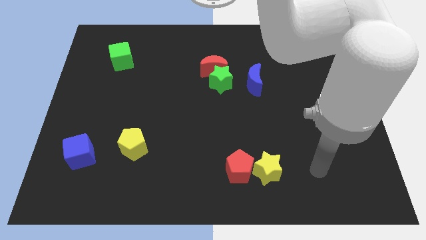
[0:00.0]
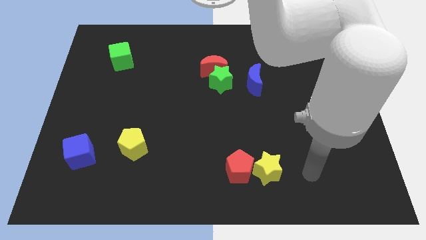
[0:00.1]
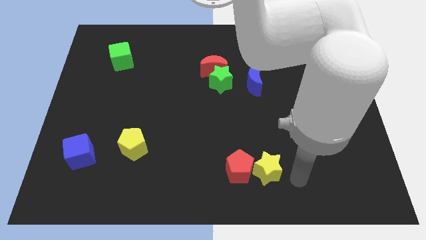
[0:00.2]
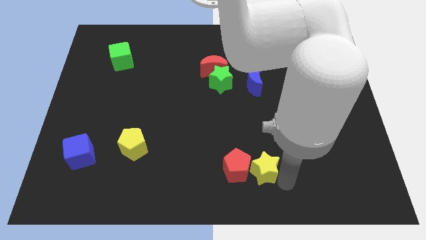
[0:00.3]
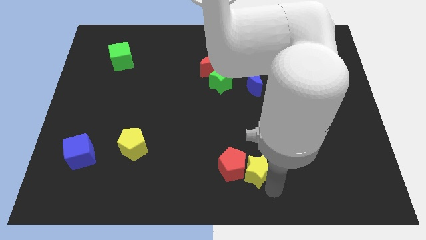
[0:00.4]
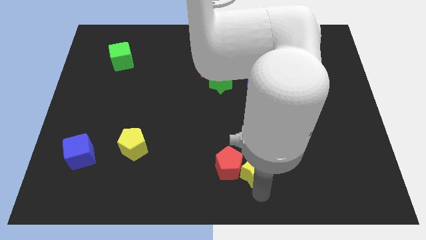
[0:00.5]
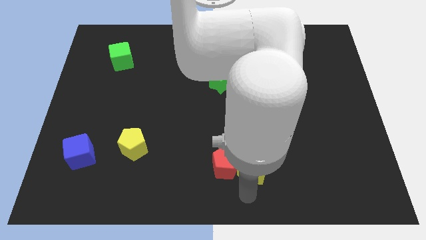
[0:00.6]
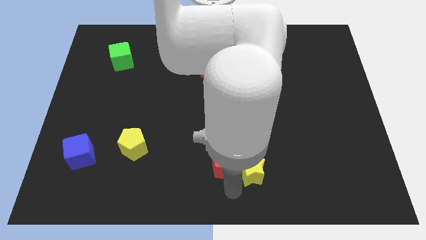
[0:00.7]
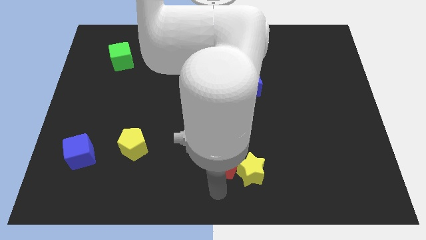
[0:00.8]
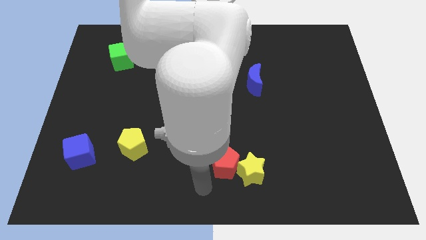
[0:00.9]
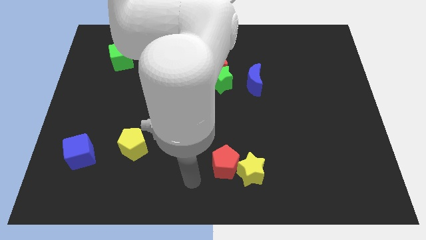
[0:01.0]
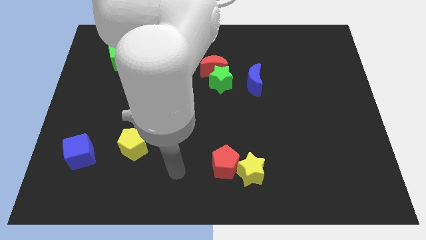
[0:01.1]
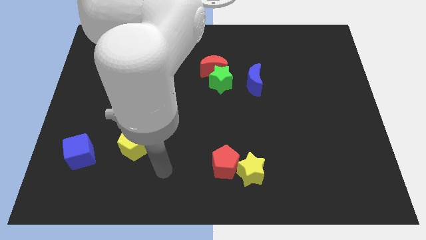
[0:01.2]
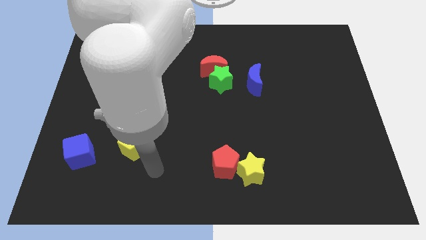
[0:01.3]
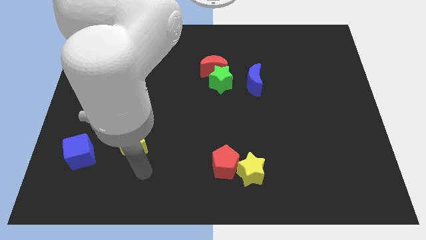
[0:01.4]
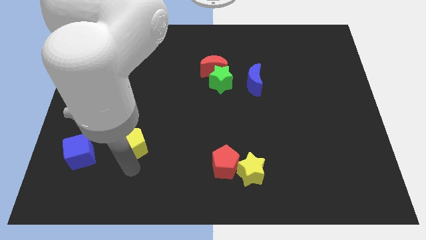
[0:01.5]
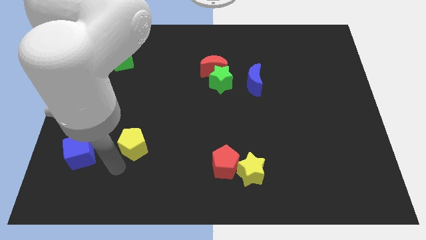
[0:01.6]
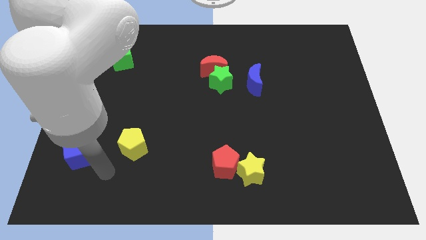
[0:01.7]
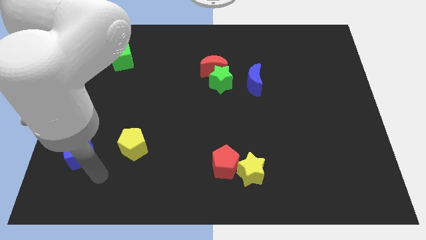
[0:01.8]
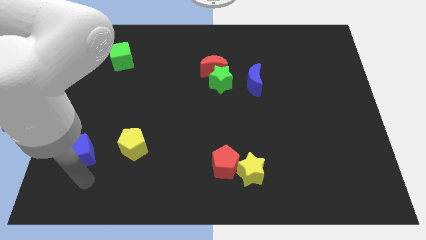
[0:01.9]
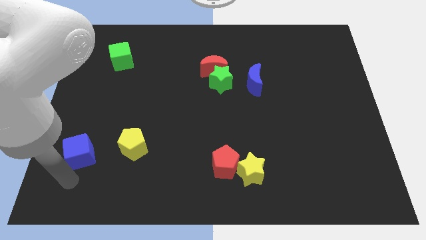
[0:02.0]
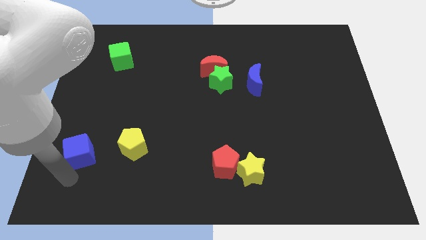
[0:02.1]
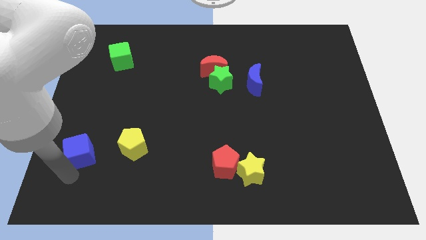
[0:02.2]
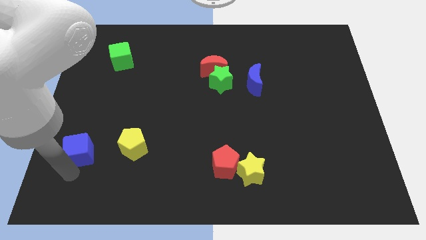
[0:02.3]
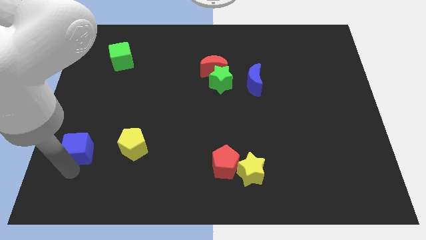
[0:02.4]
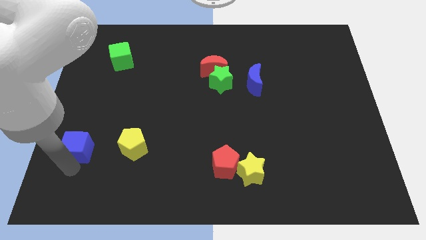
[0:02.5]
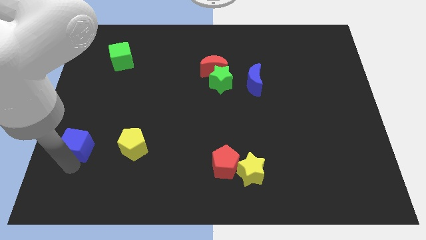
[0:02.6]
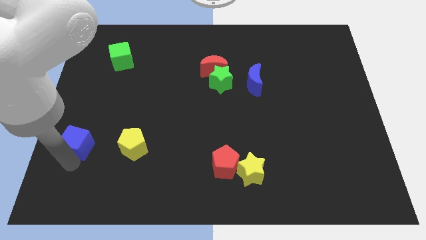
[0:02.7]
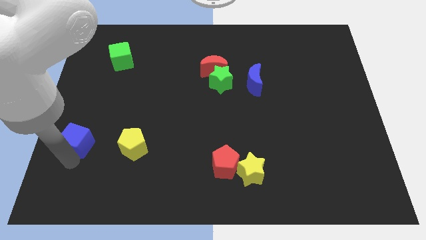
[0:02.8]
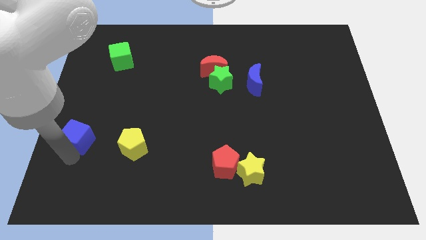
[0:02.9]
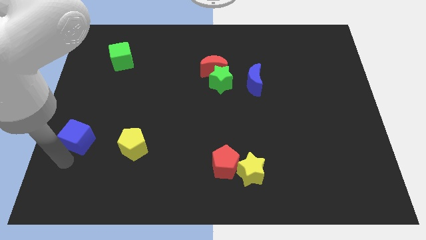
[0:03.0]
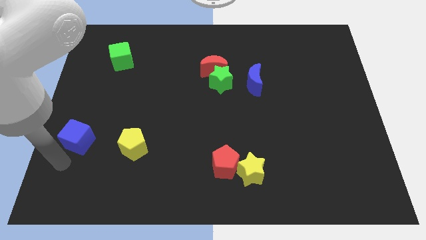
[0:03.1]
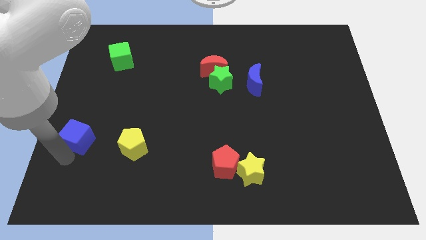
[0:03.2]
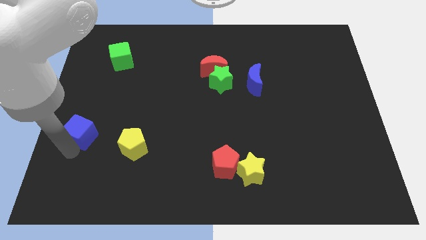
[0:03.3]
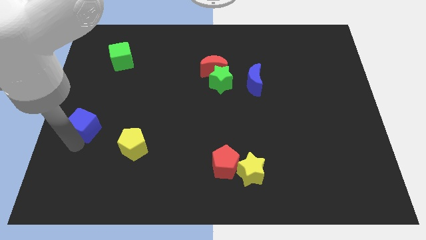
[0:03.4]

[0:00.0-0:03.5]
move the blue cube upwards slightly

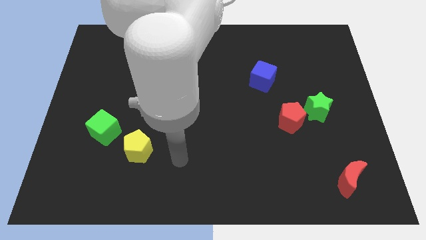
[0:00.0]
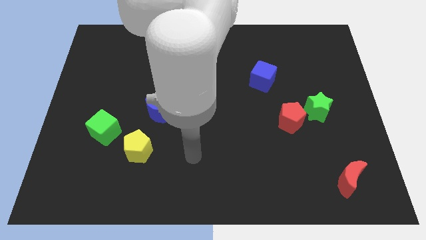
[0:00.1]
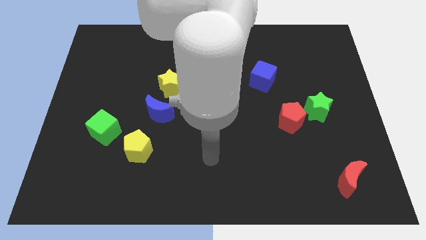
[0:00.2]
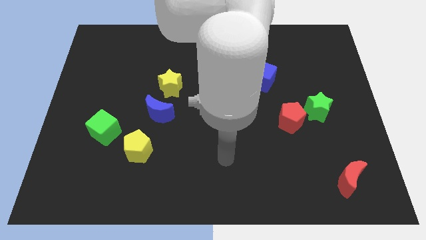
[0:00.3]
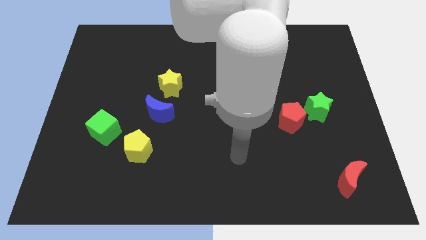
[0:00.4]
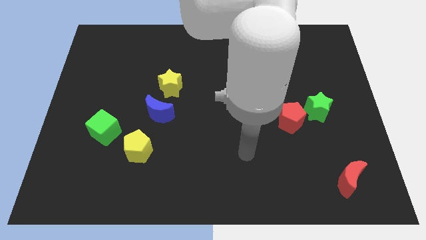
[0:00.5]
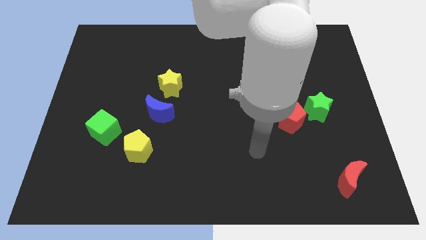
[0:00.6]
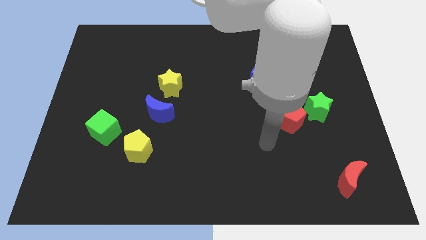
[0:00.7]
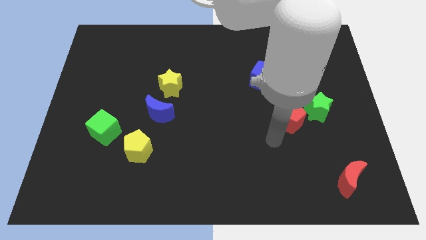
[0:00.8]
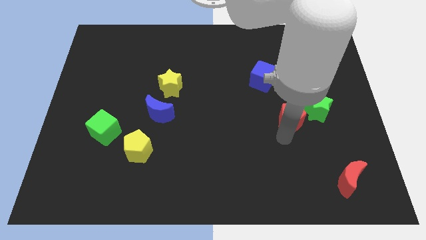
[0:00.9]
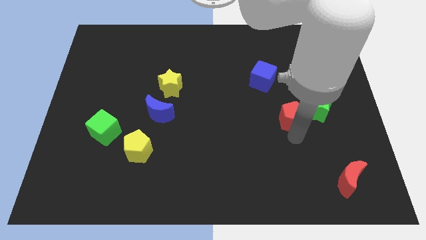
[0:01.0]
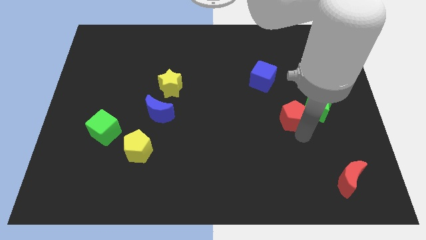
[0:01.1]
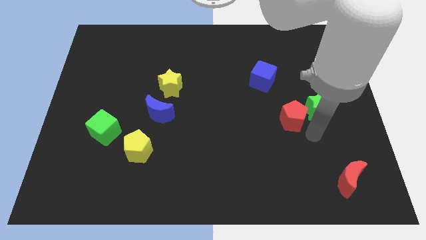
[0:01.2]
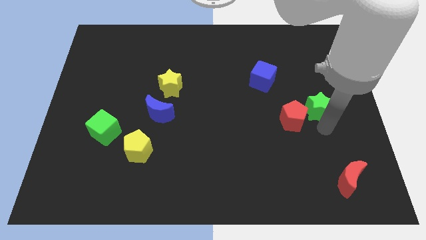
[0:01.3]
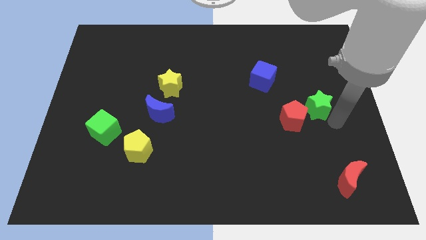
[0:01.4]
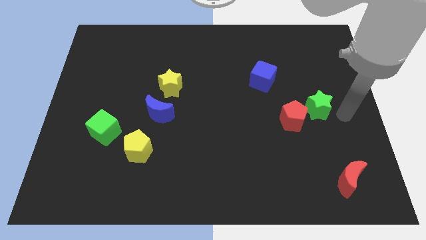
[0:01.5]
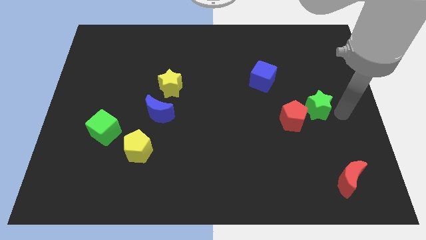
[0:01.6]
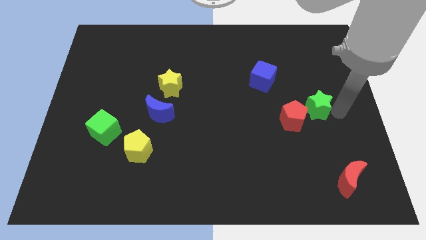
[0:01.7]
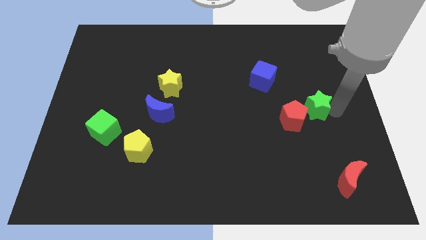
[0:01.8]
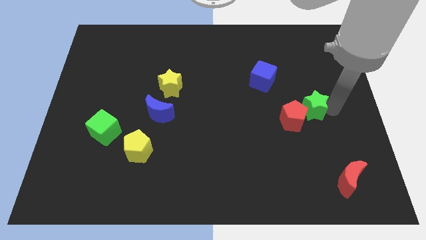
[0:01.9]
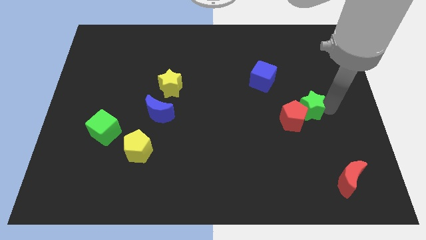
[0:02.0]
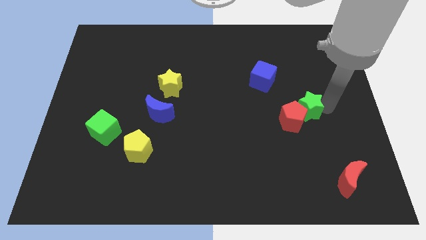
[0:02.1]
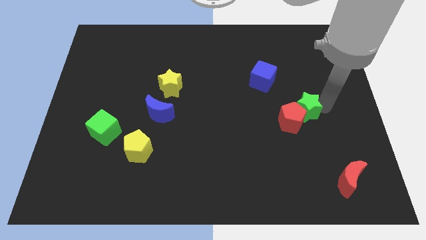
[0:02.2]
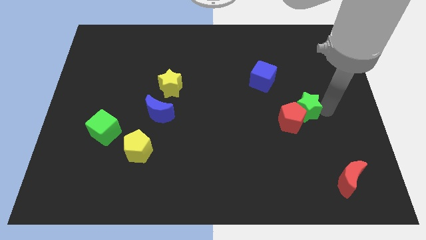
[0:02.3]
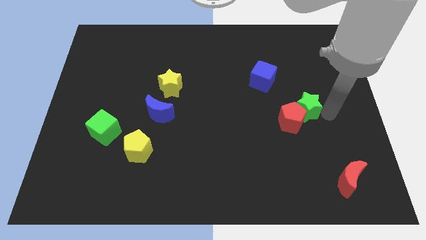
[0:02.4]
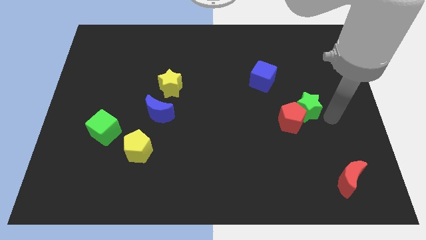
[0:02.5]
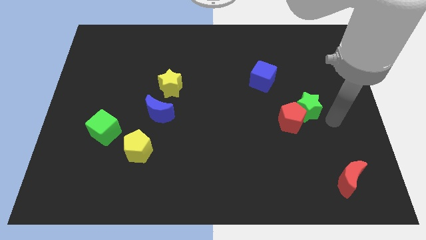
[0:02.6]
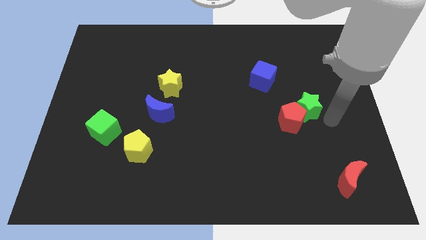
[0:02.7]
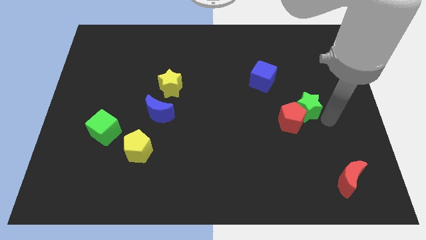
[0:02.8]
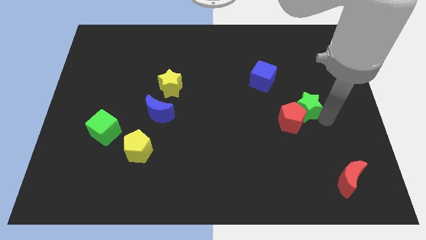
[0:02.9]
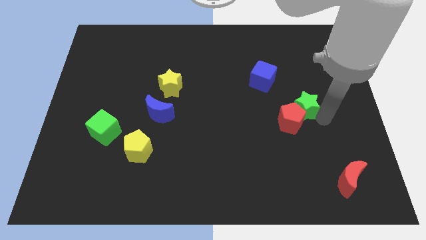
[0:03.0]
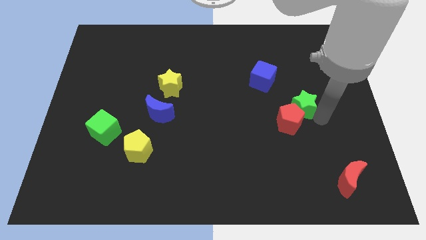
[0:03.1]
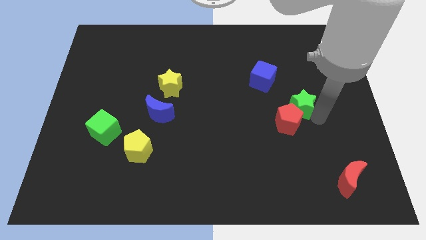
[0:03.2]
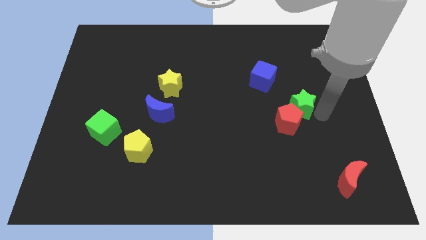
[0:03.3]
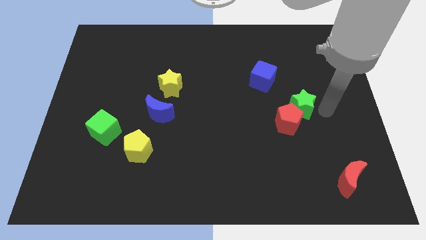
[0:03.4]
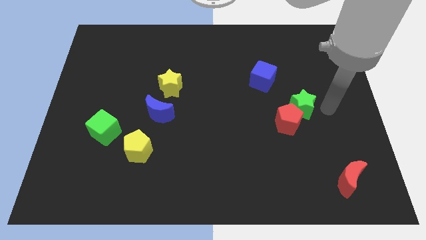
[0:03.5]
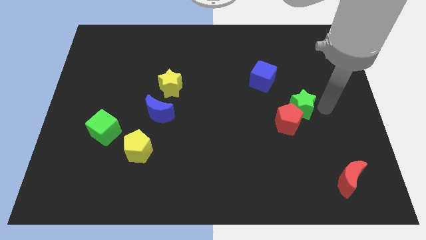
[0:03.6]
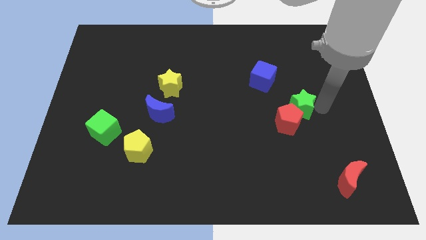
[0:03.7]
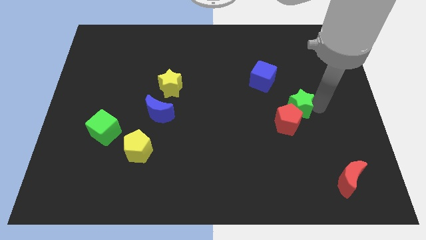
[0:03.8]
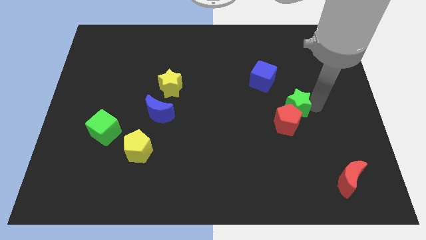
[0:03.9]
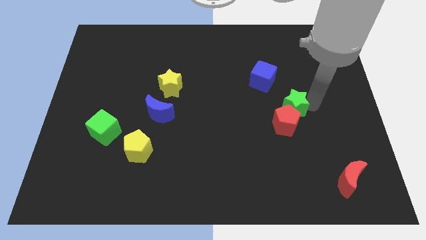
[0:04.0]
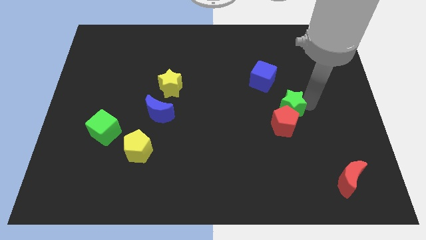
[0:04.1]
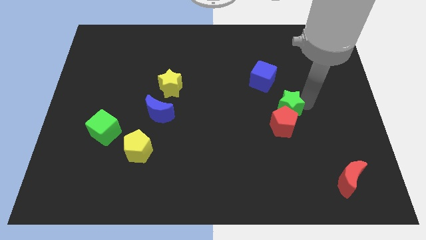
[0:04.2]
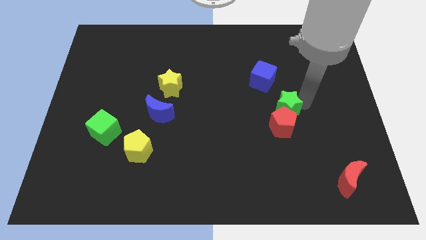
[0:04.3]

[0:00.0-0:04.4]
push the green star a little bit left
